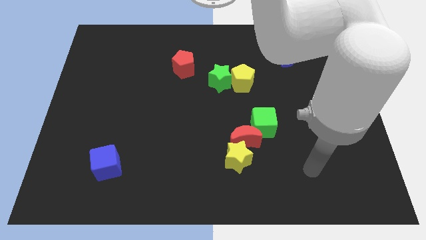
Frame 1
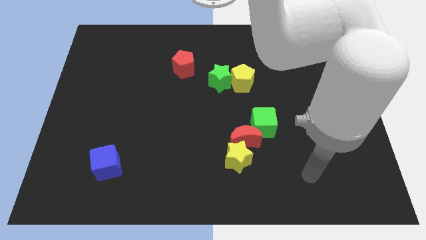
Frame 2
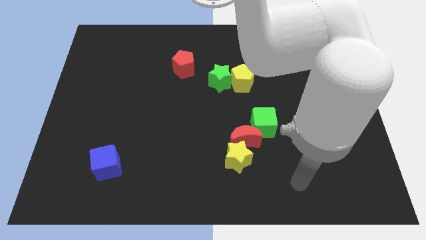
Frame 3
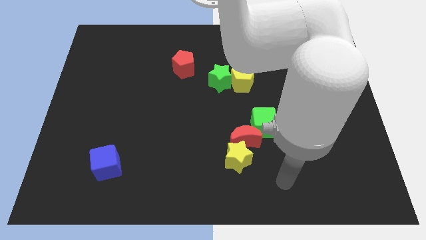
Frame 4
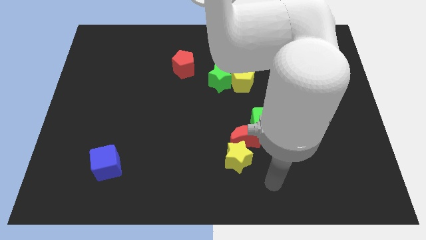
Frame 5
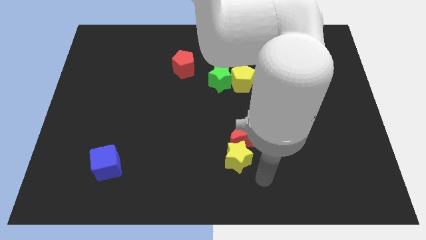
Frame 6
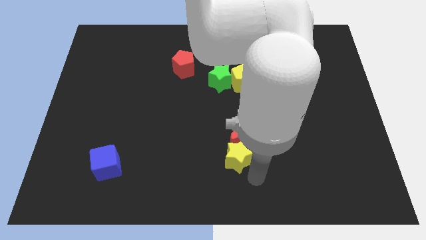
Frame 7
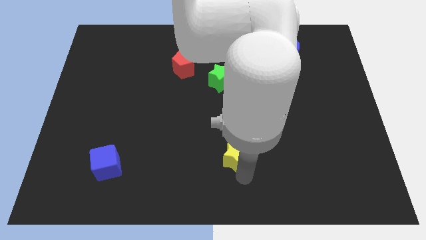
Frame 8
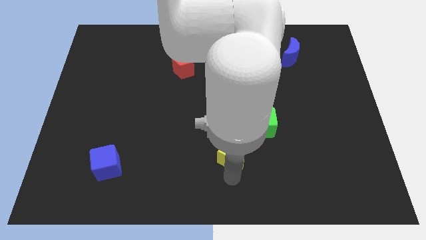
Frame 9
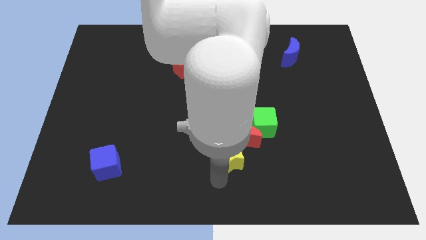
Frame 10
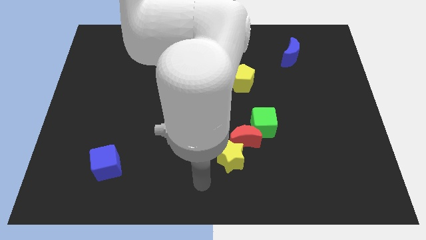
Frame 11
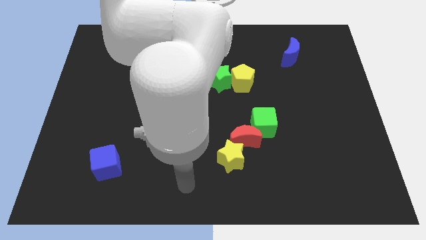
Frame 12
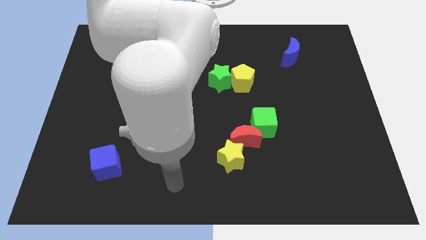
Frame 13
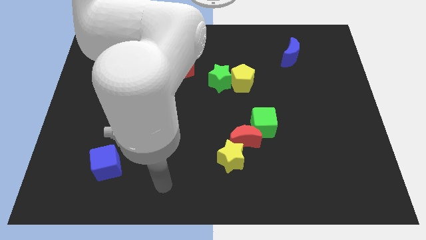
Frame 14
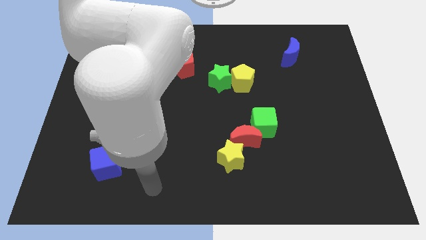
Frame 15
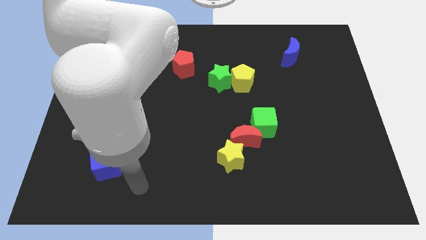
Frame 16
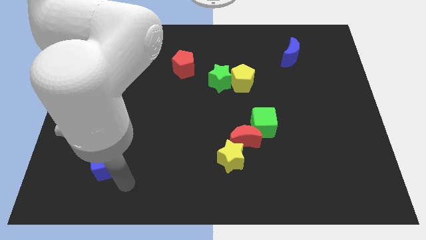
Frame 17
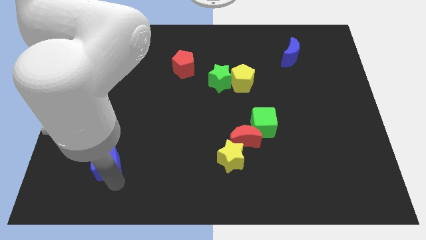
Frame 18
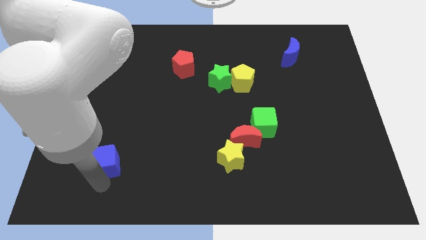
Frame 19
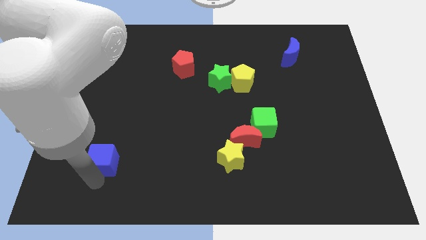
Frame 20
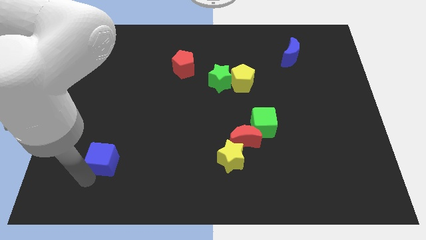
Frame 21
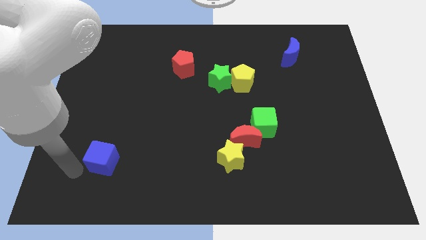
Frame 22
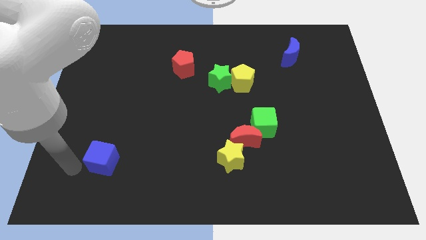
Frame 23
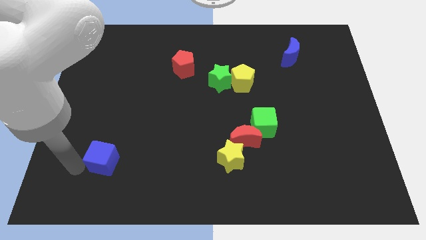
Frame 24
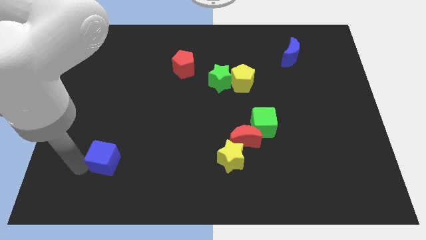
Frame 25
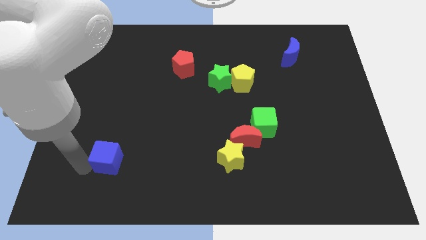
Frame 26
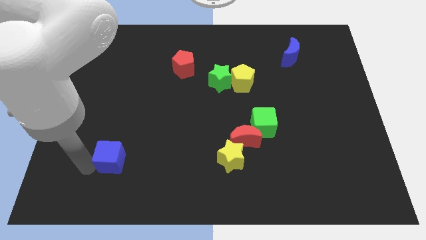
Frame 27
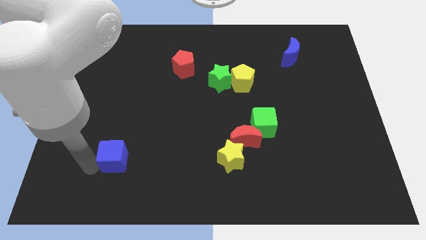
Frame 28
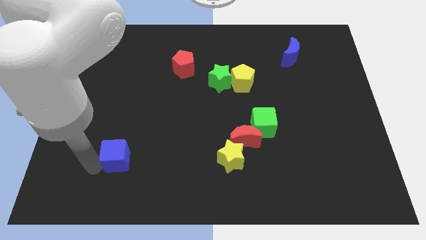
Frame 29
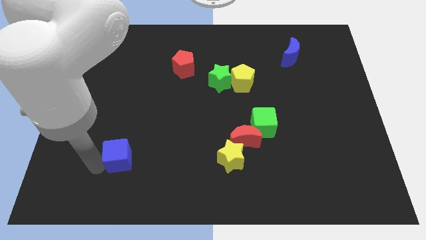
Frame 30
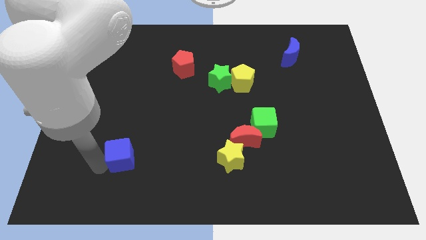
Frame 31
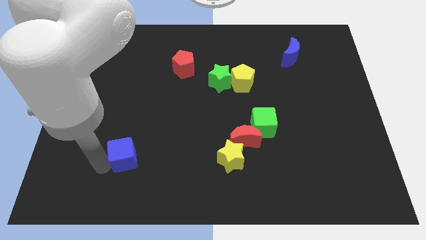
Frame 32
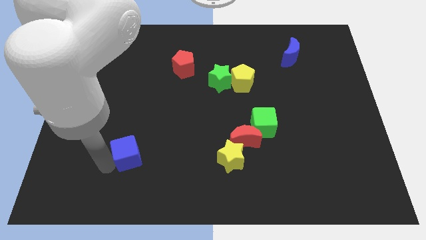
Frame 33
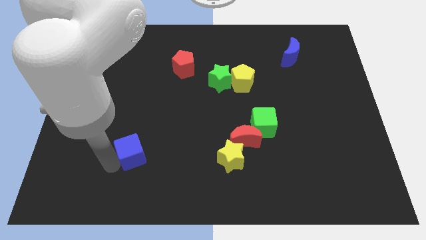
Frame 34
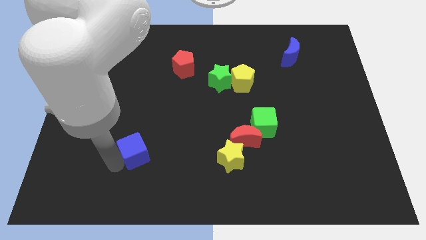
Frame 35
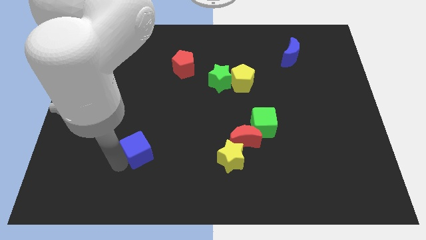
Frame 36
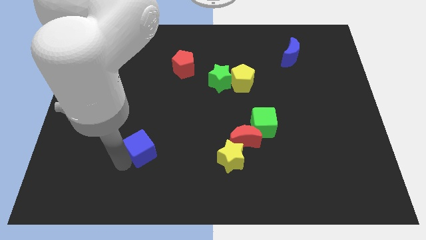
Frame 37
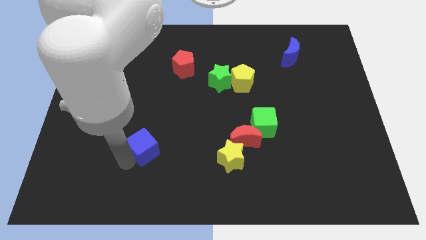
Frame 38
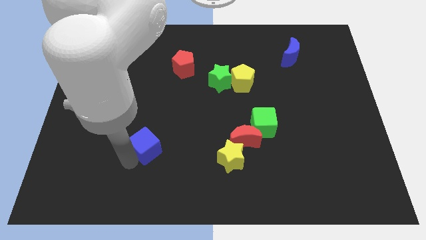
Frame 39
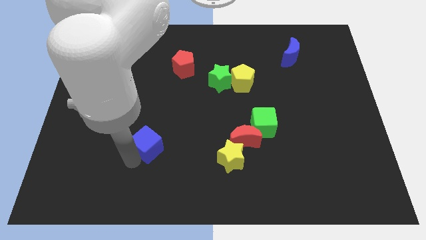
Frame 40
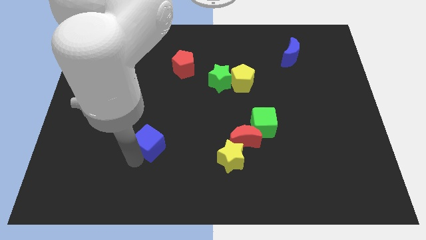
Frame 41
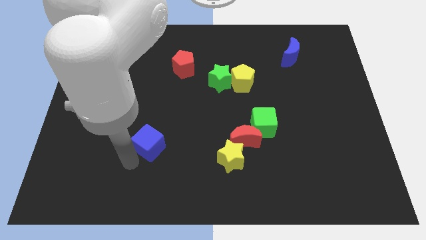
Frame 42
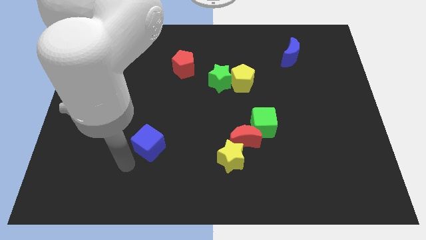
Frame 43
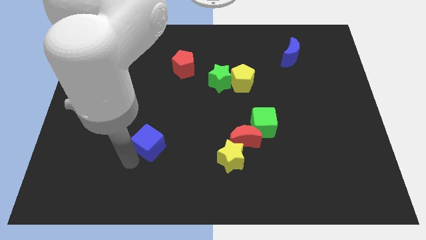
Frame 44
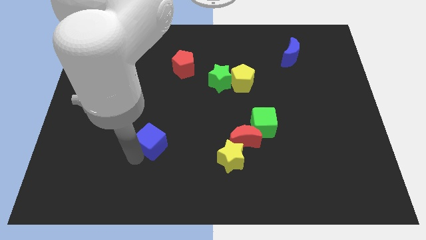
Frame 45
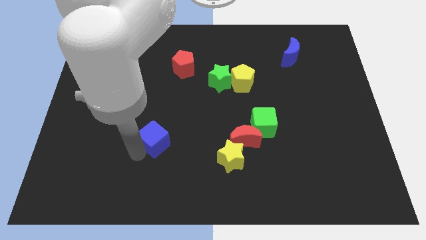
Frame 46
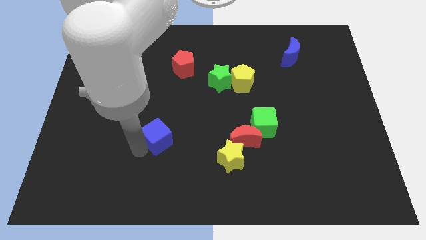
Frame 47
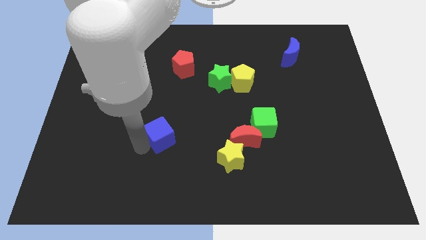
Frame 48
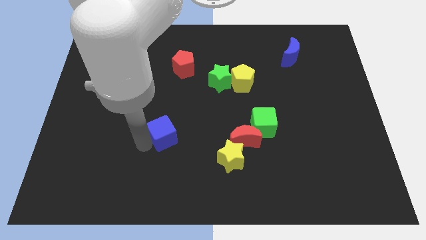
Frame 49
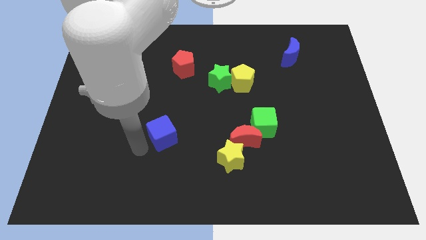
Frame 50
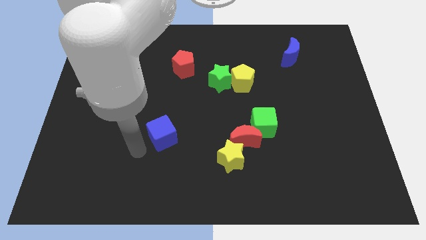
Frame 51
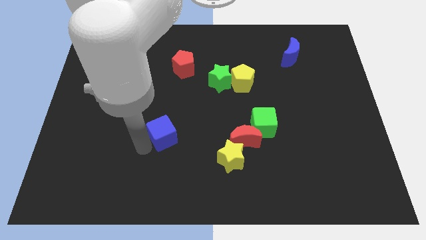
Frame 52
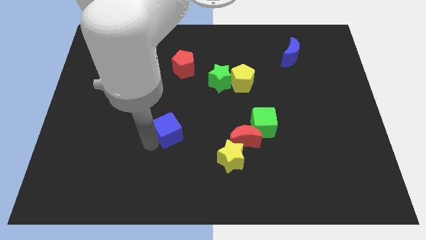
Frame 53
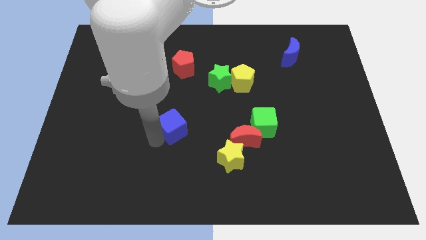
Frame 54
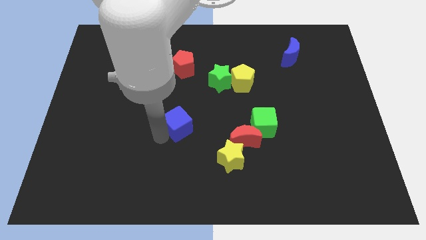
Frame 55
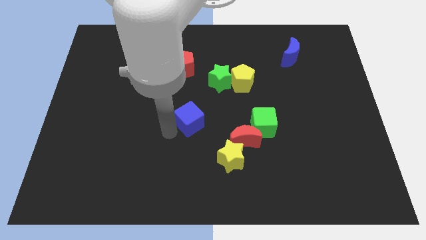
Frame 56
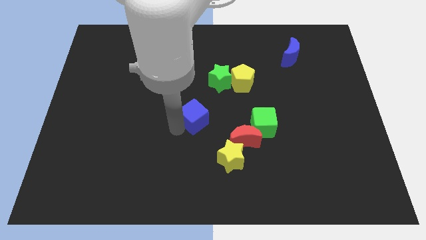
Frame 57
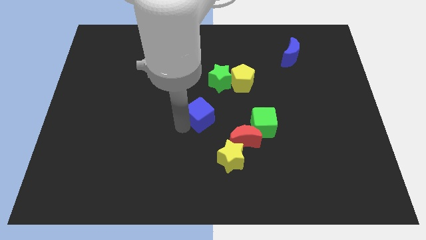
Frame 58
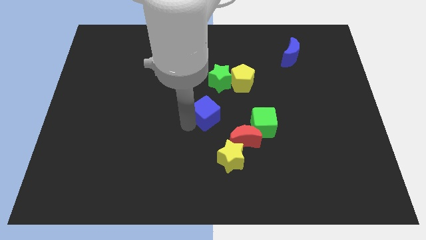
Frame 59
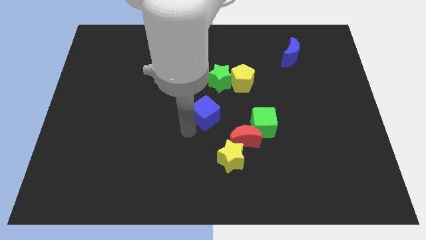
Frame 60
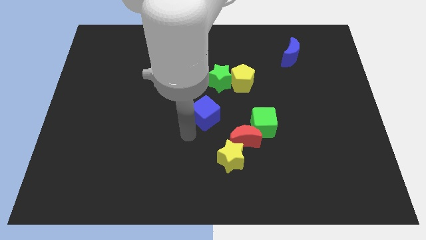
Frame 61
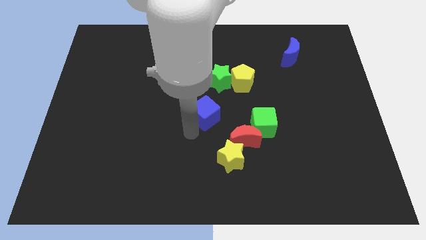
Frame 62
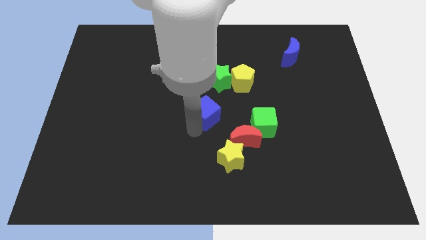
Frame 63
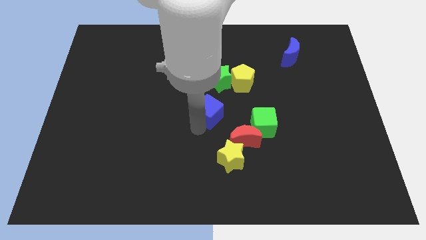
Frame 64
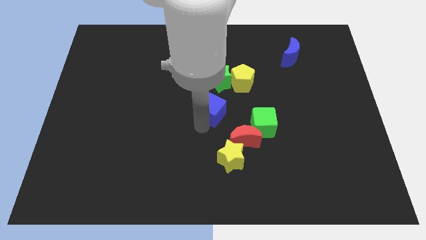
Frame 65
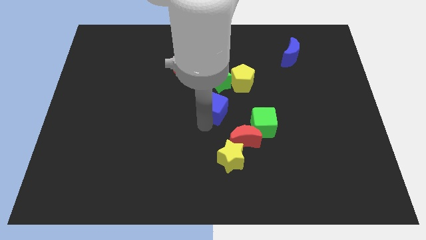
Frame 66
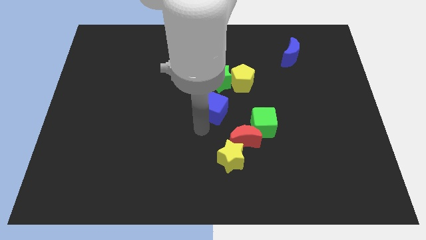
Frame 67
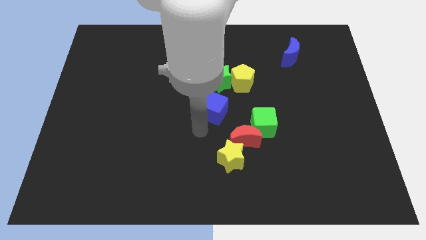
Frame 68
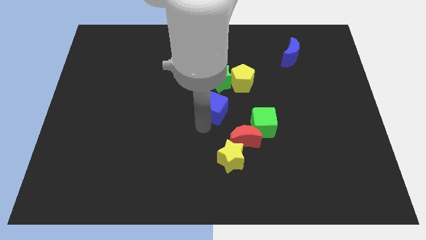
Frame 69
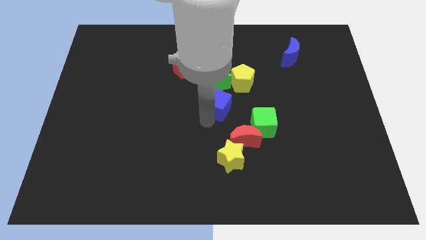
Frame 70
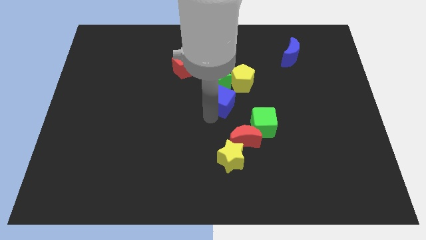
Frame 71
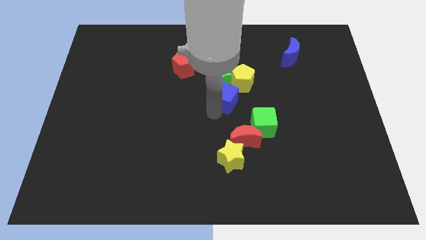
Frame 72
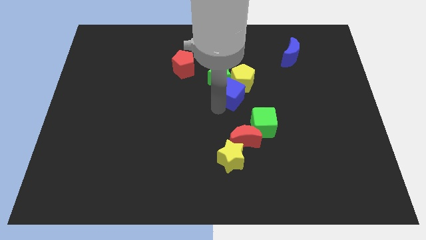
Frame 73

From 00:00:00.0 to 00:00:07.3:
push the blue cube to the yellow pentagon
